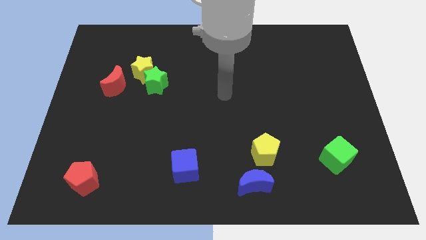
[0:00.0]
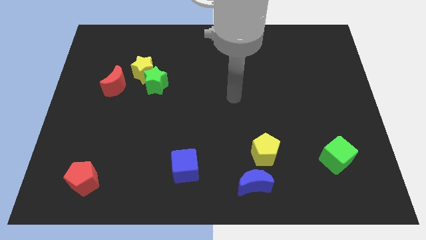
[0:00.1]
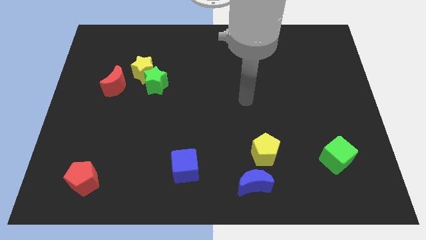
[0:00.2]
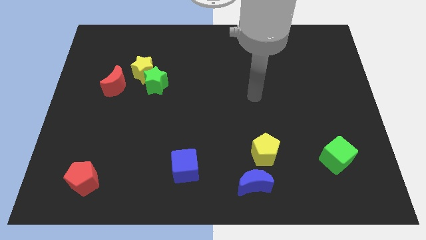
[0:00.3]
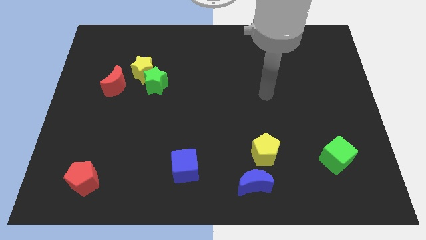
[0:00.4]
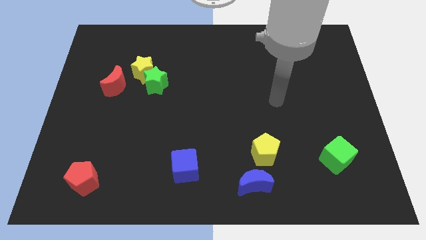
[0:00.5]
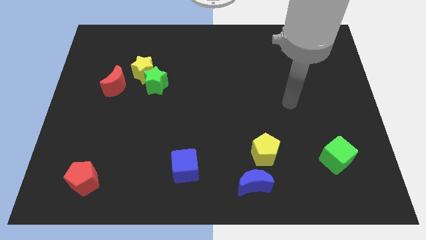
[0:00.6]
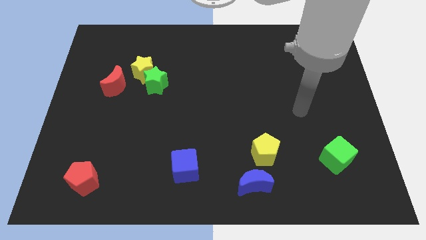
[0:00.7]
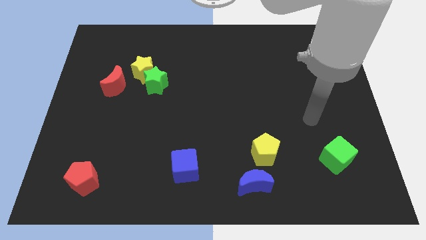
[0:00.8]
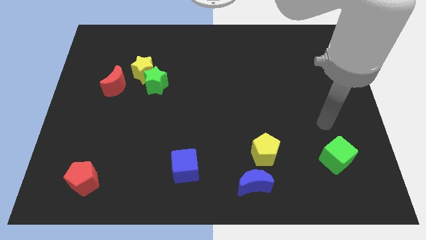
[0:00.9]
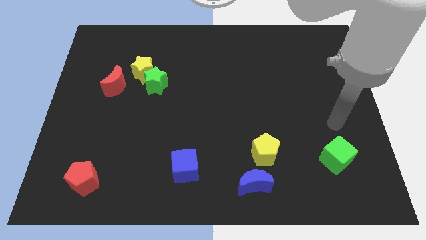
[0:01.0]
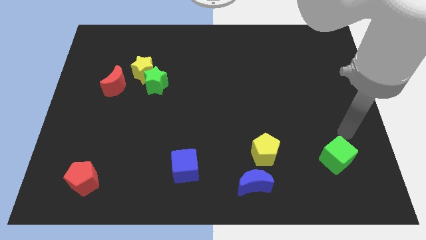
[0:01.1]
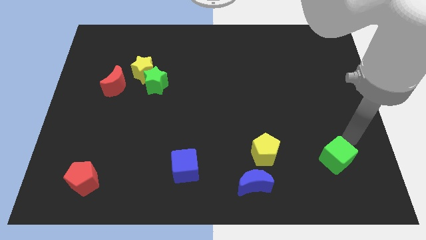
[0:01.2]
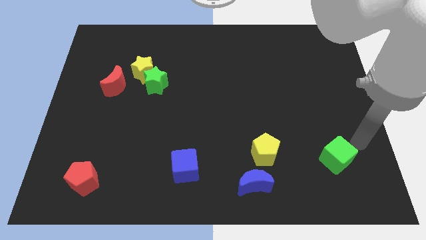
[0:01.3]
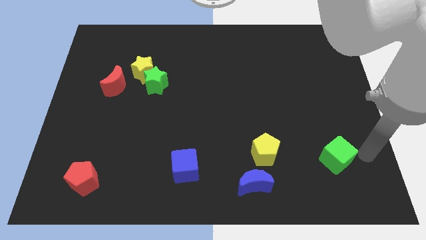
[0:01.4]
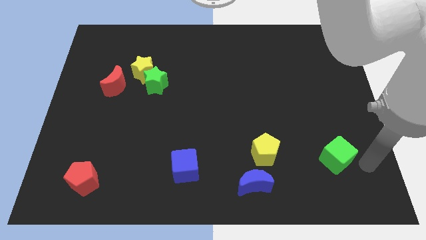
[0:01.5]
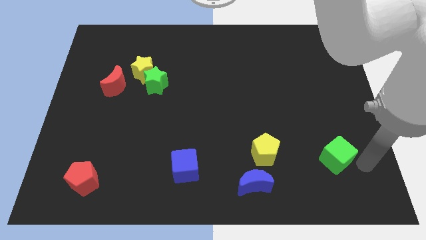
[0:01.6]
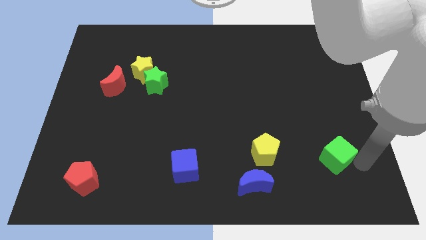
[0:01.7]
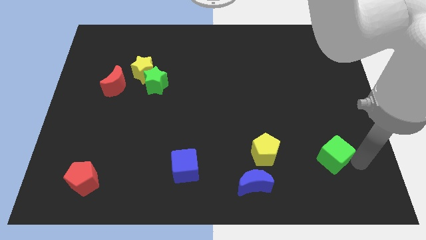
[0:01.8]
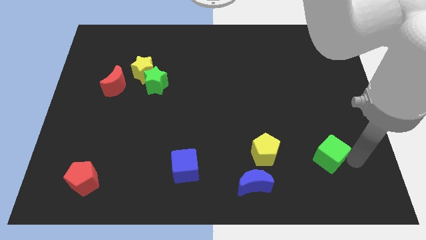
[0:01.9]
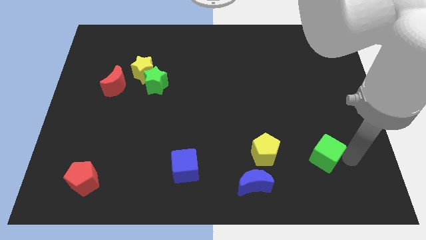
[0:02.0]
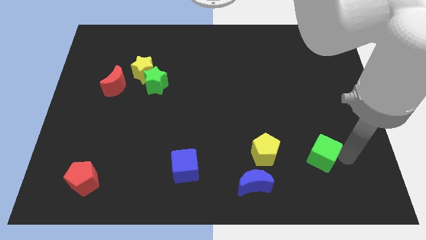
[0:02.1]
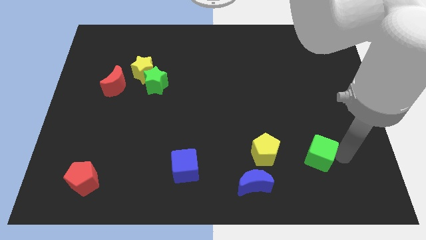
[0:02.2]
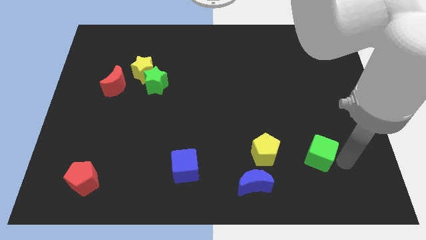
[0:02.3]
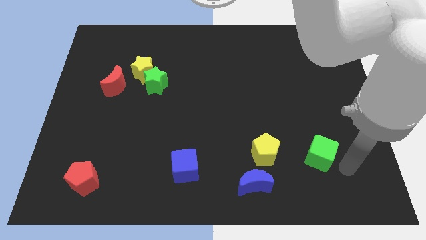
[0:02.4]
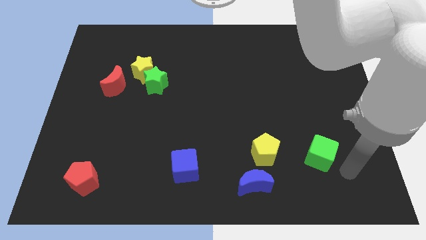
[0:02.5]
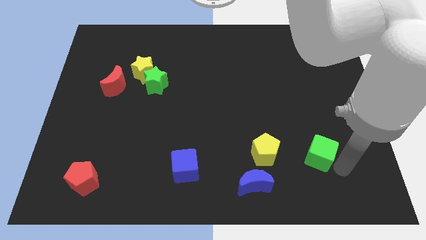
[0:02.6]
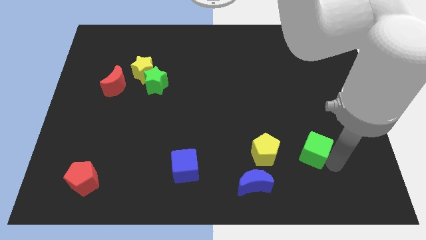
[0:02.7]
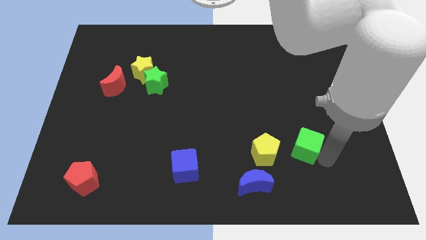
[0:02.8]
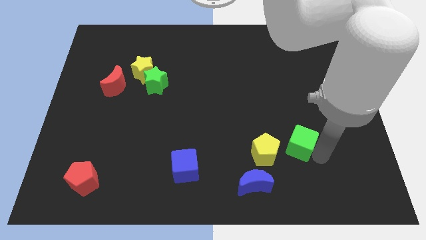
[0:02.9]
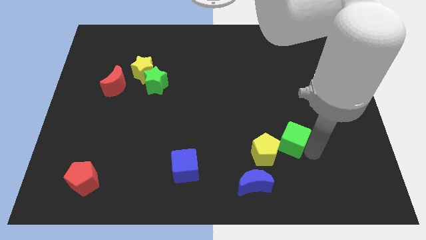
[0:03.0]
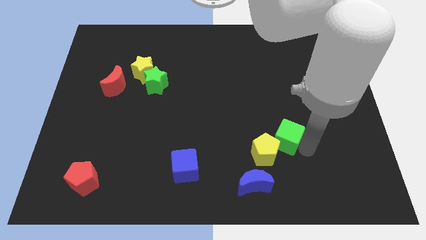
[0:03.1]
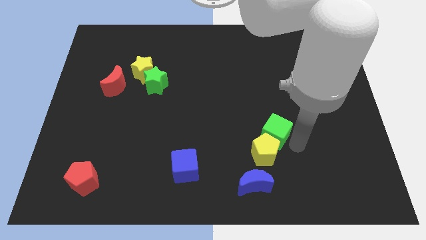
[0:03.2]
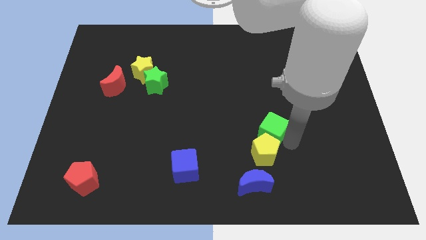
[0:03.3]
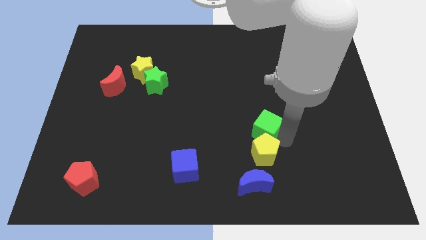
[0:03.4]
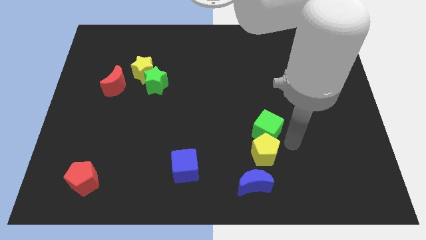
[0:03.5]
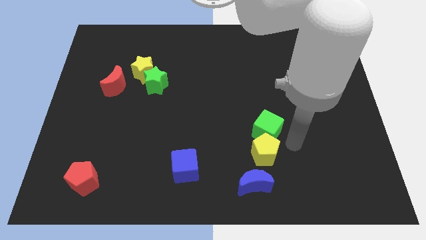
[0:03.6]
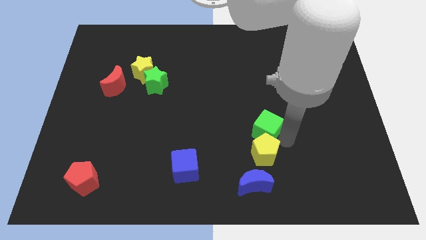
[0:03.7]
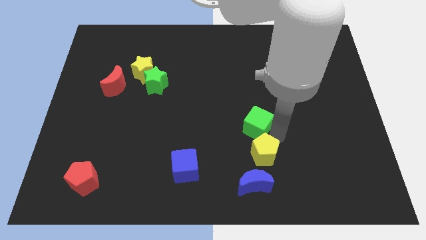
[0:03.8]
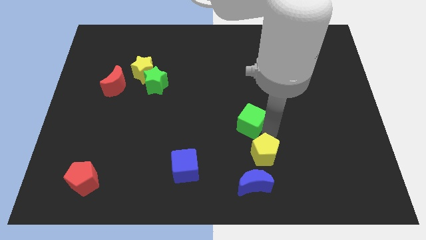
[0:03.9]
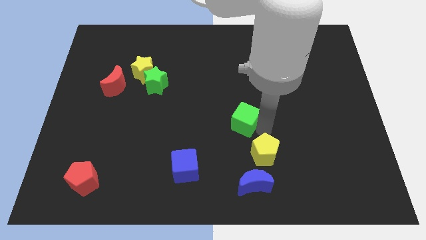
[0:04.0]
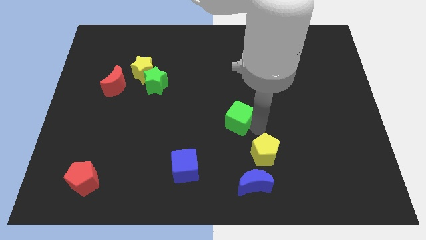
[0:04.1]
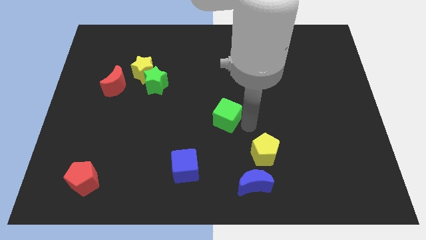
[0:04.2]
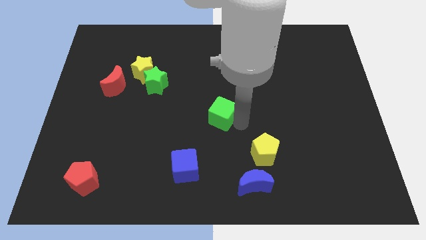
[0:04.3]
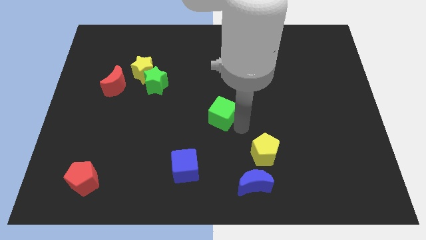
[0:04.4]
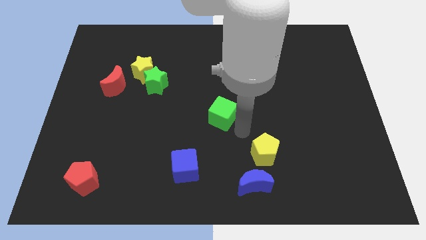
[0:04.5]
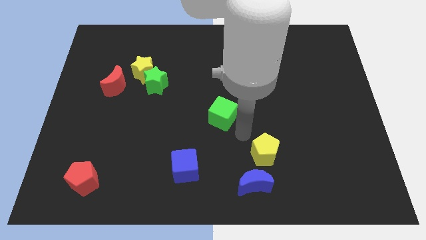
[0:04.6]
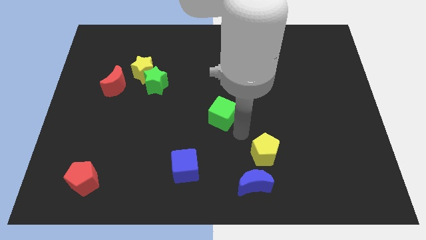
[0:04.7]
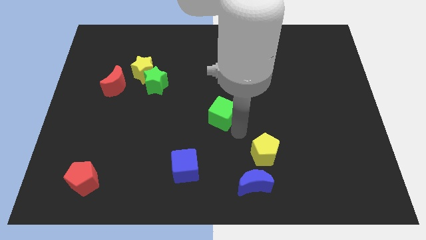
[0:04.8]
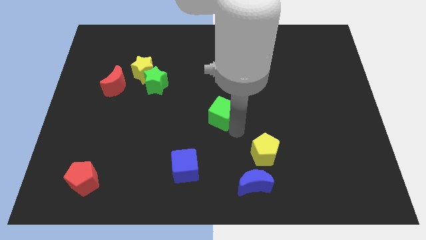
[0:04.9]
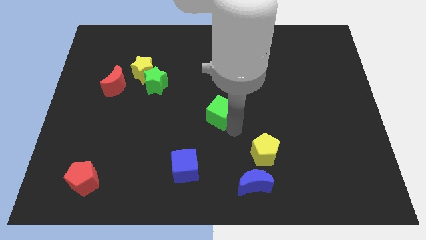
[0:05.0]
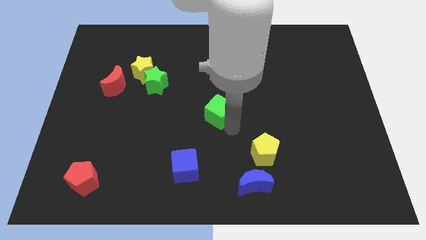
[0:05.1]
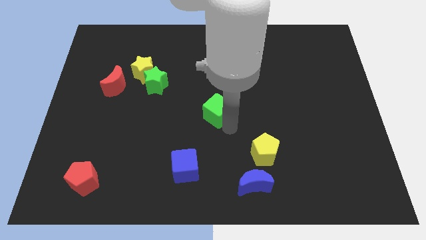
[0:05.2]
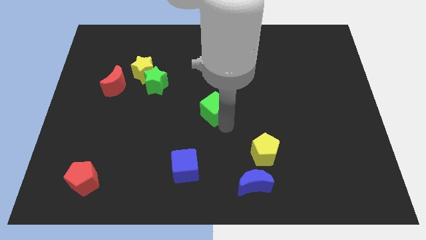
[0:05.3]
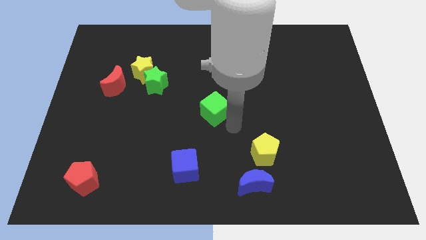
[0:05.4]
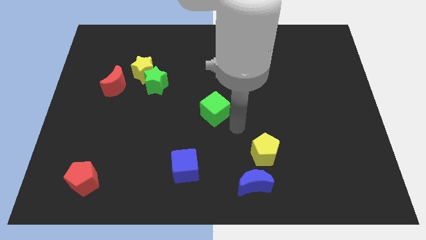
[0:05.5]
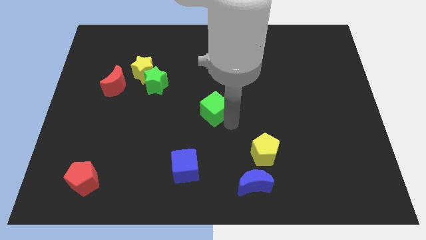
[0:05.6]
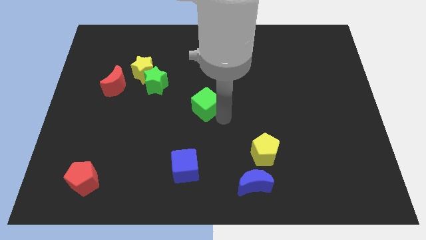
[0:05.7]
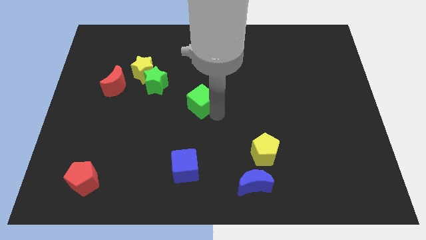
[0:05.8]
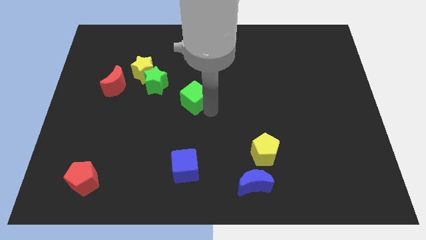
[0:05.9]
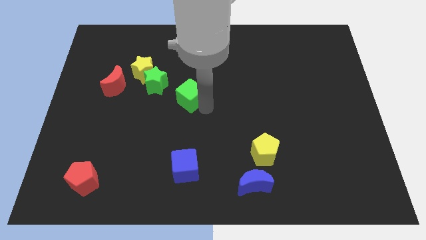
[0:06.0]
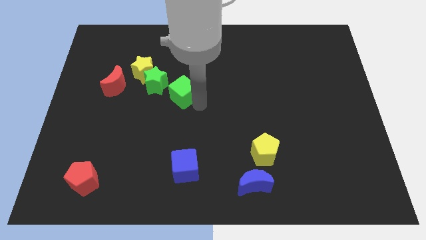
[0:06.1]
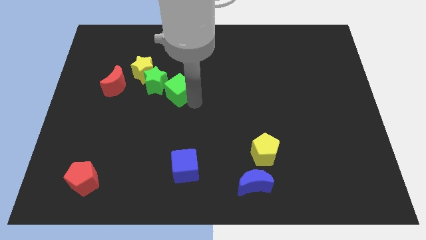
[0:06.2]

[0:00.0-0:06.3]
put the green cube right of the red moon
